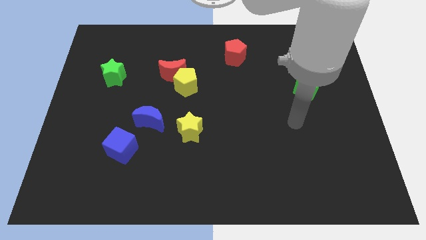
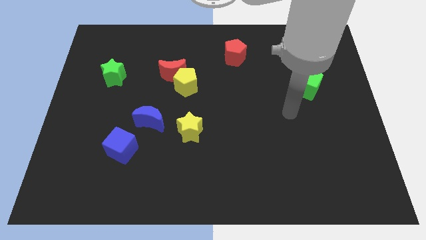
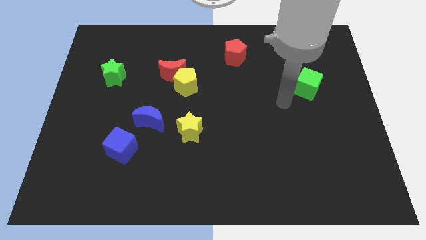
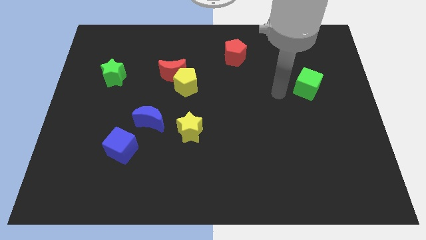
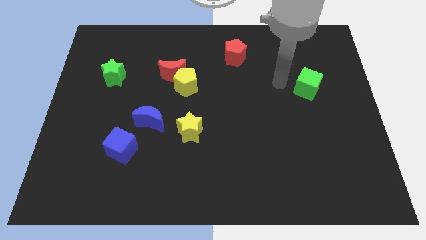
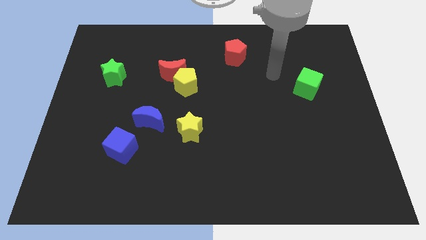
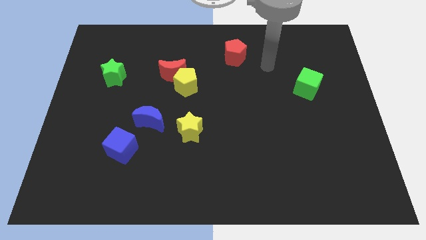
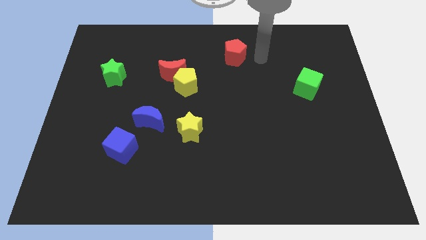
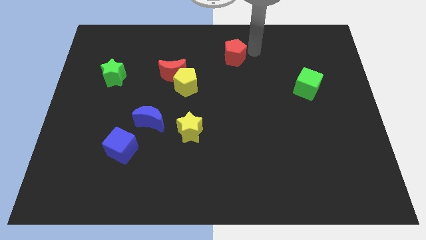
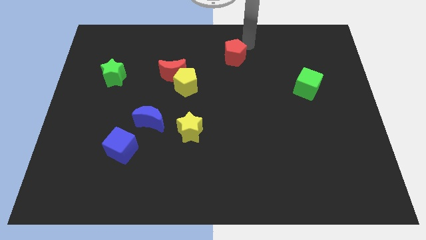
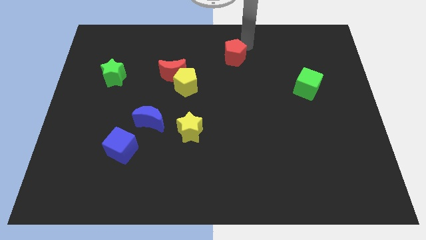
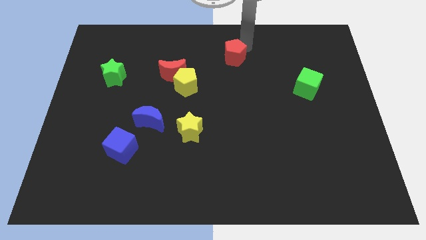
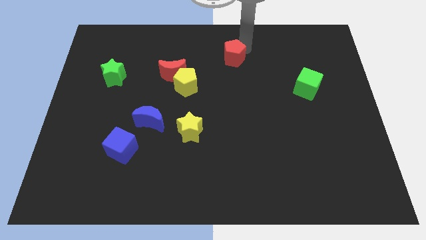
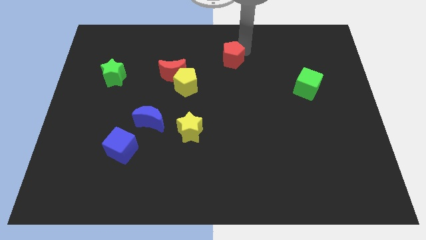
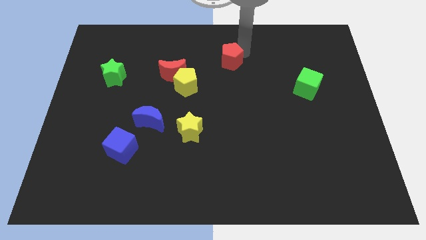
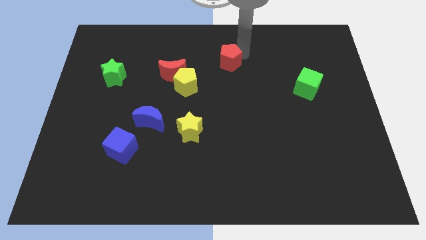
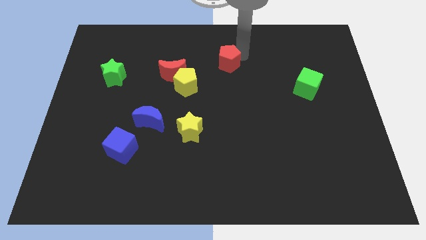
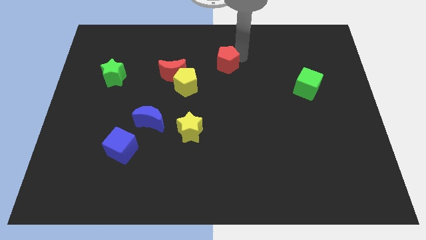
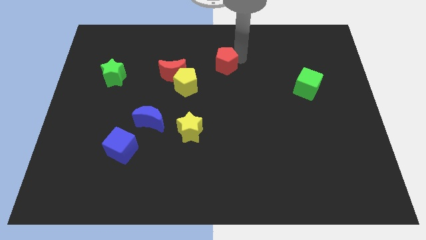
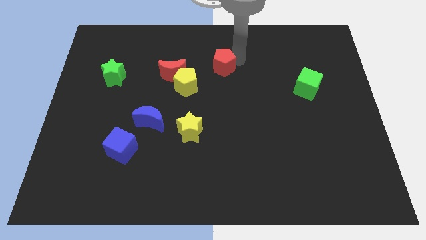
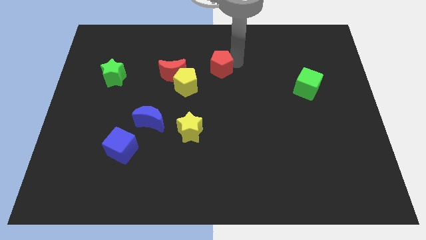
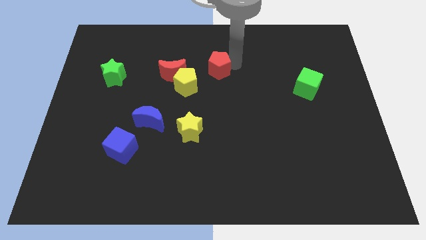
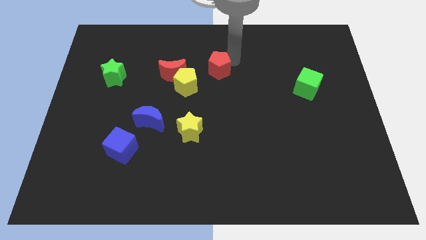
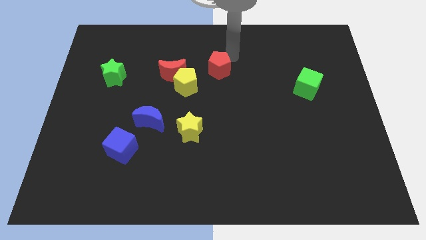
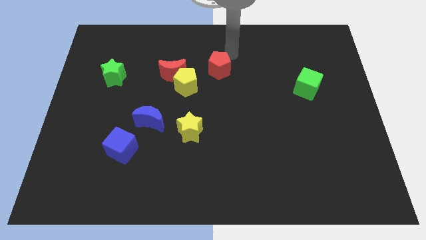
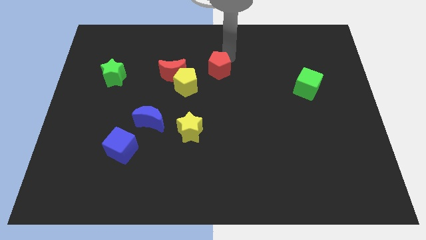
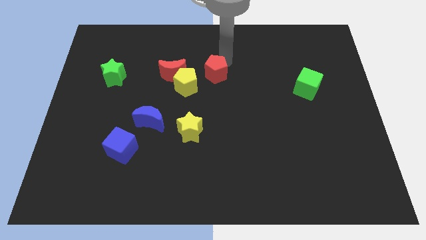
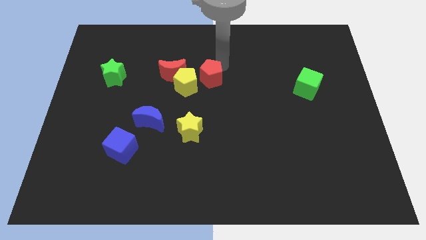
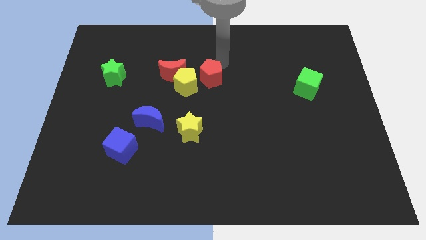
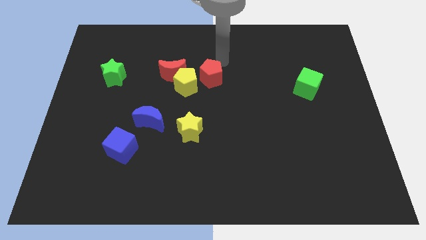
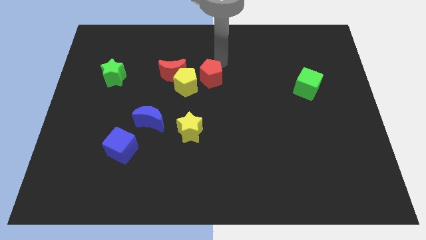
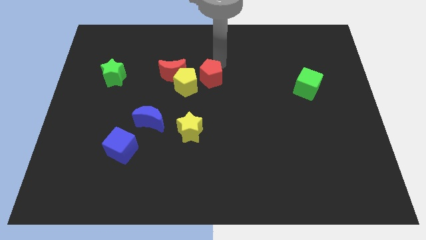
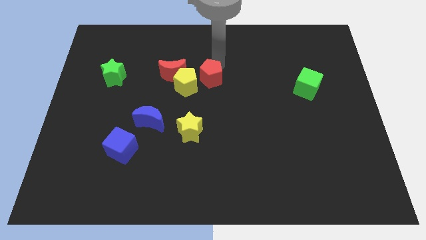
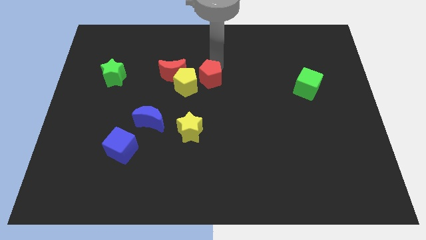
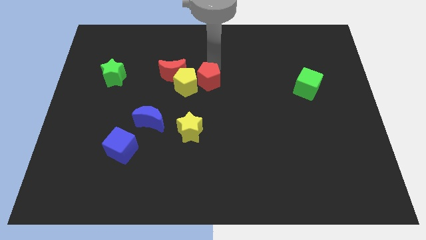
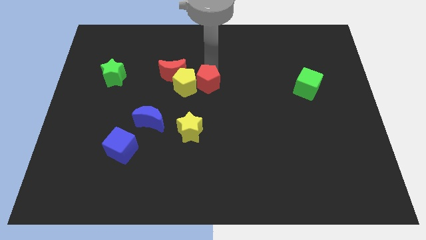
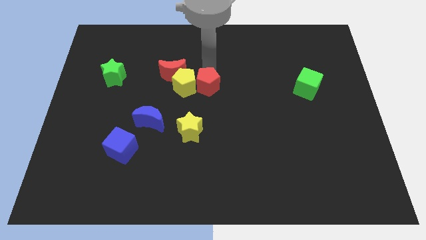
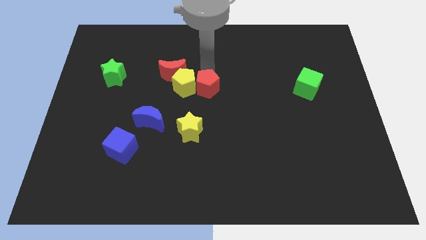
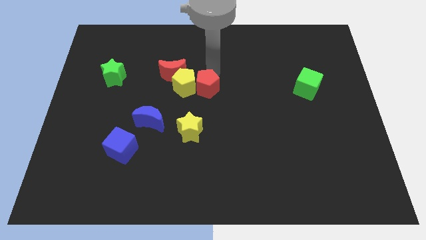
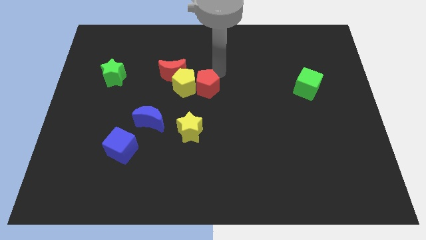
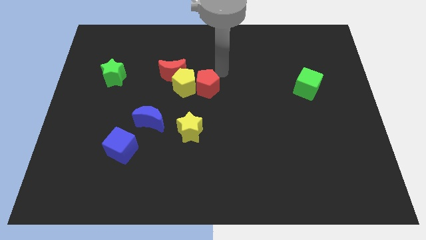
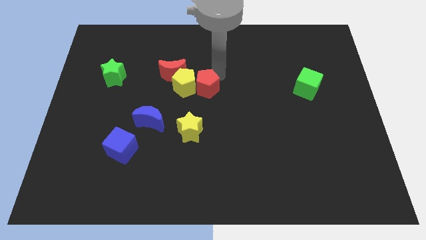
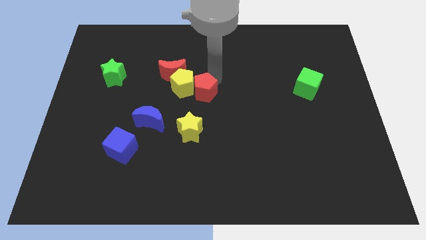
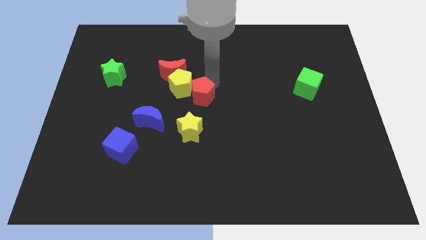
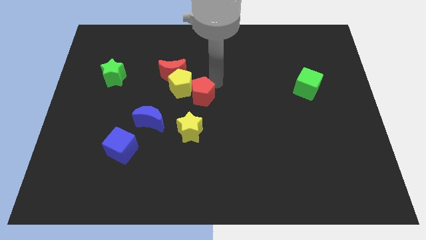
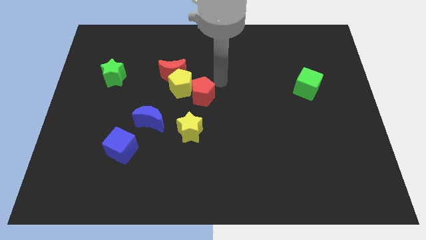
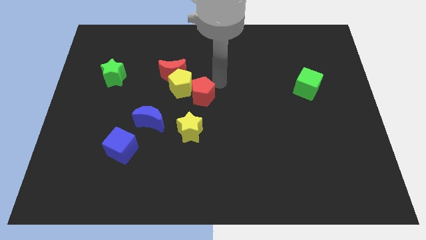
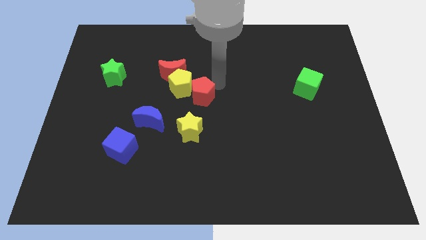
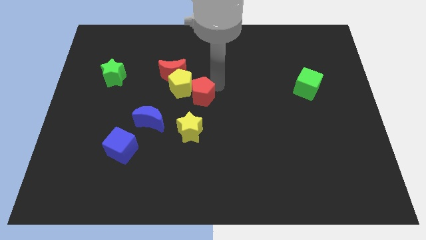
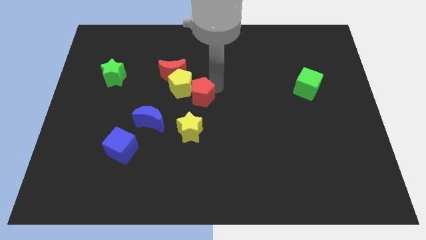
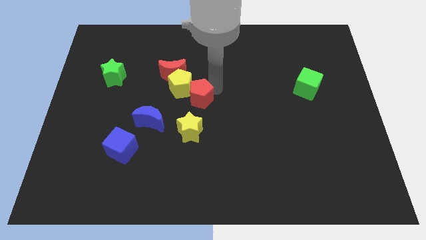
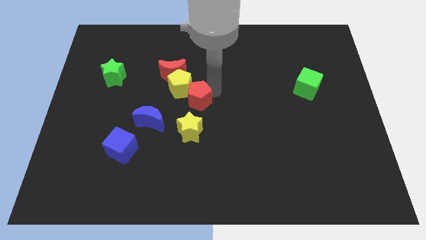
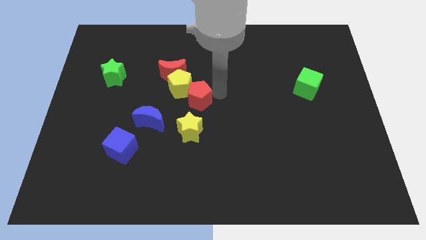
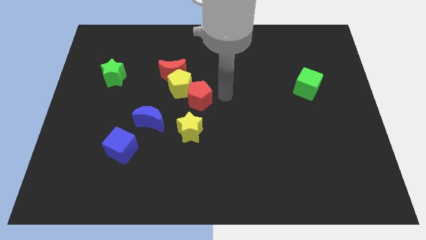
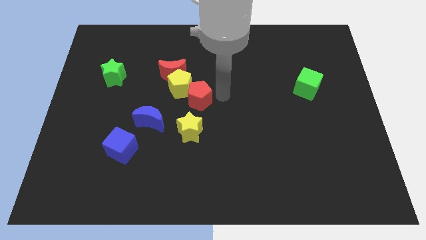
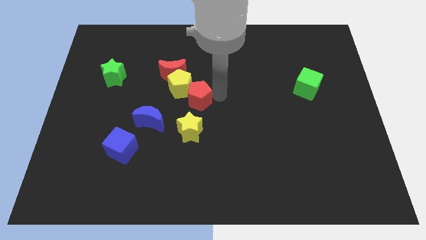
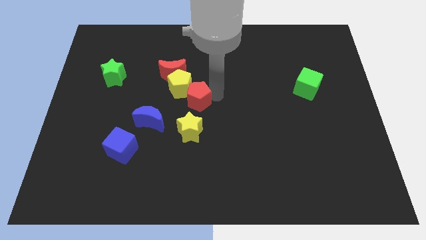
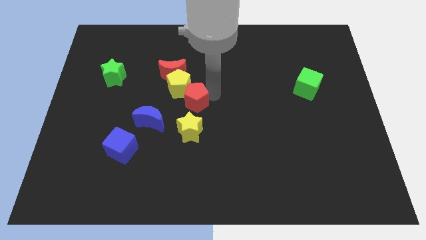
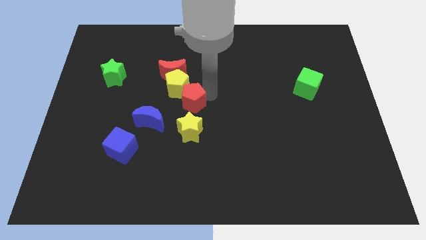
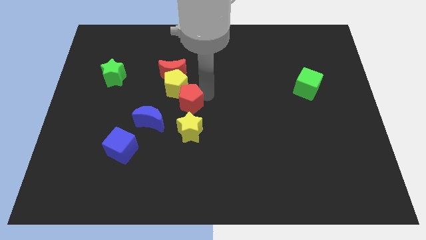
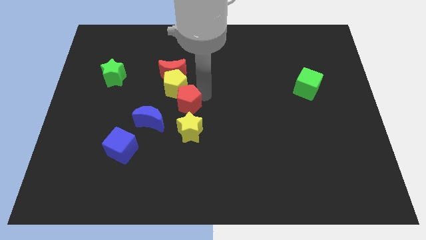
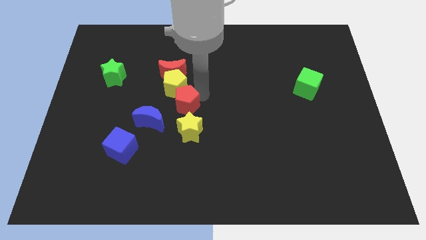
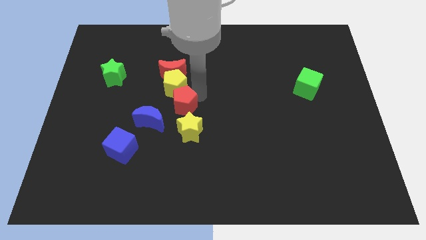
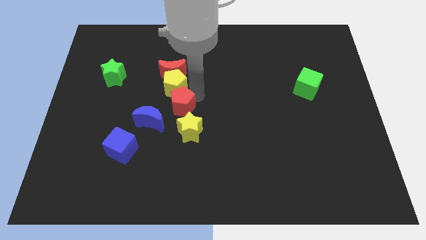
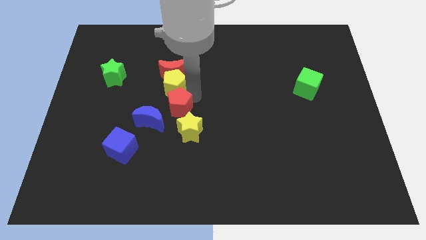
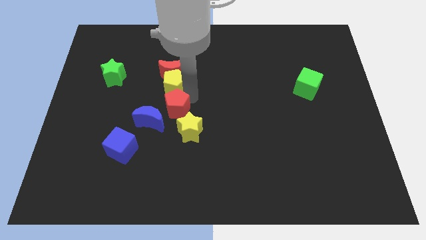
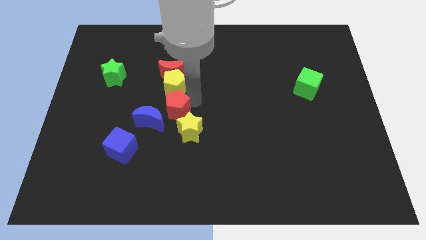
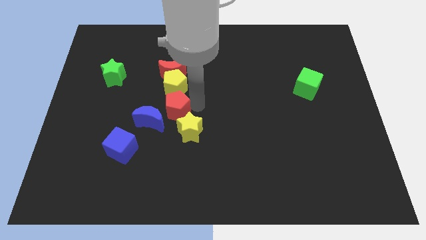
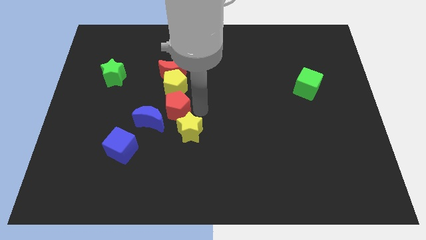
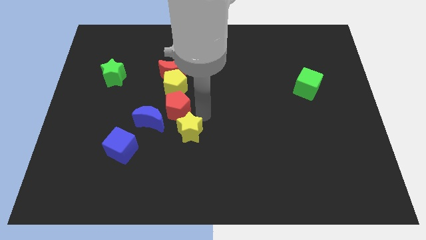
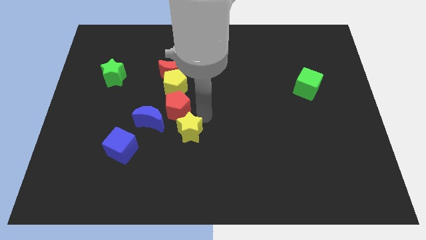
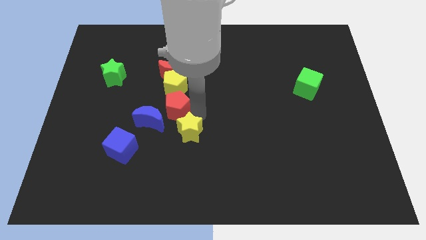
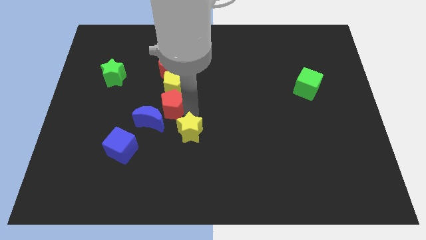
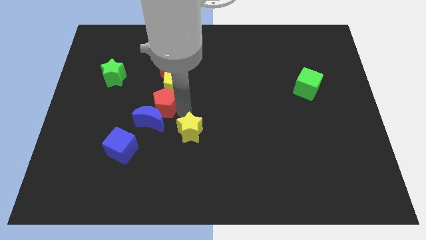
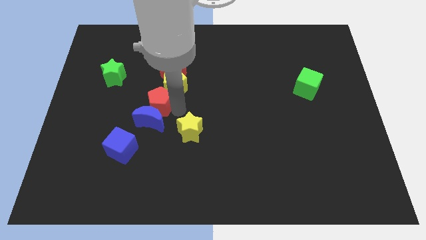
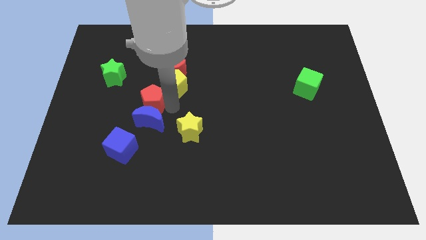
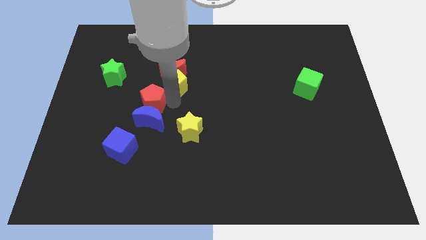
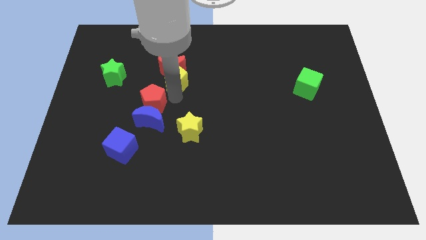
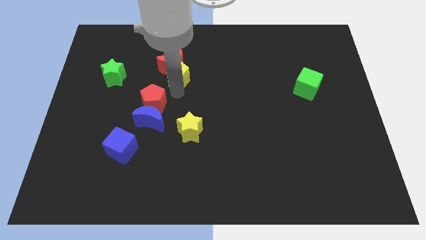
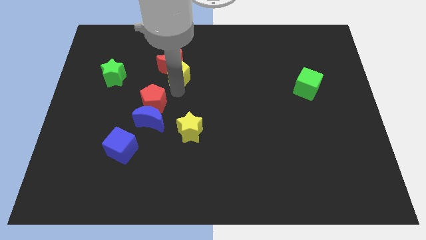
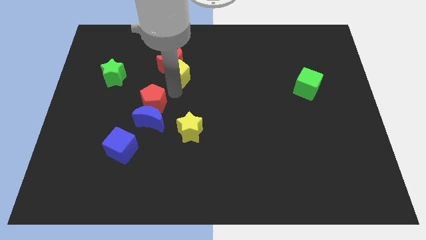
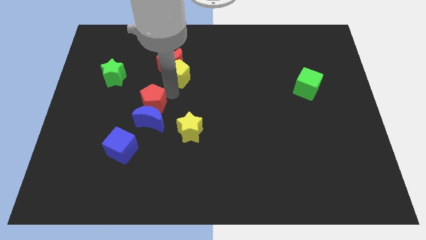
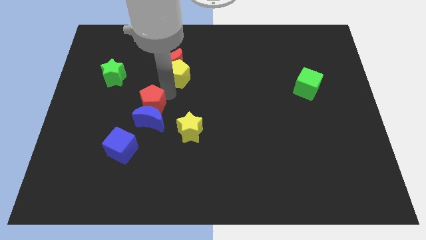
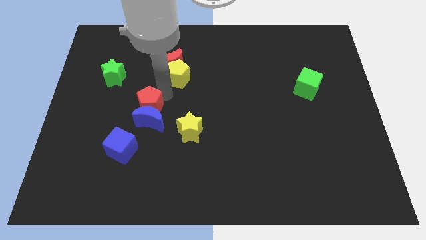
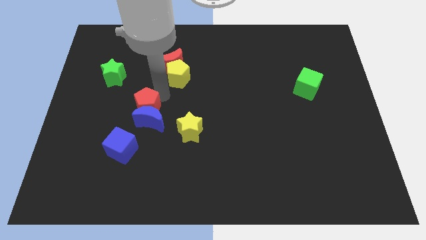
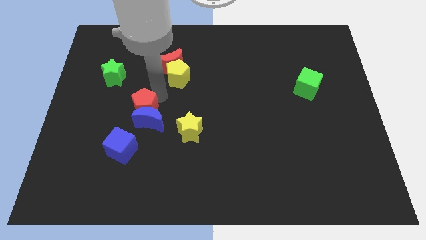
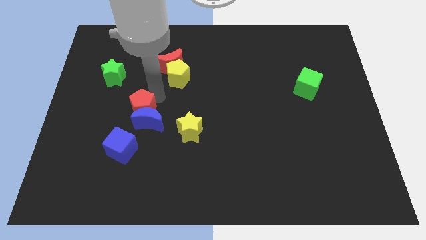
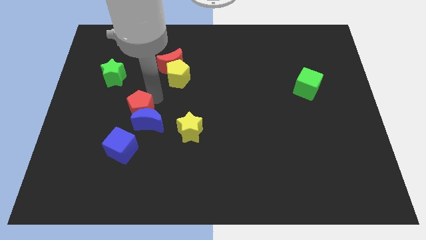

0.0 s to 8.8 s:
push the red pentagon left of the blue moon
